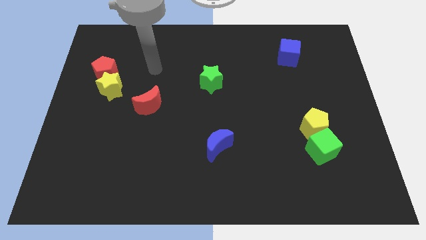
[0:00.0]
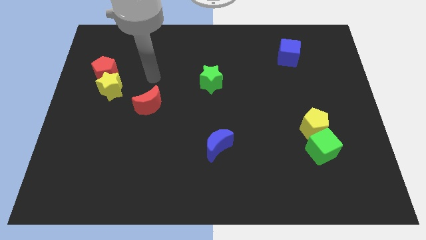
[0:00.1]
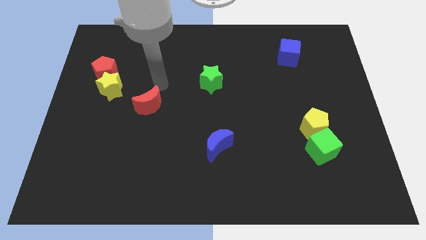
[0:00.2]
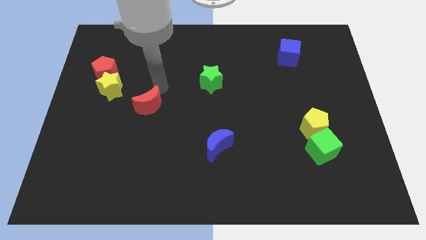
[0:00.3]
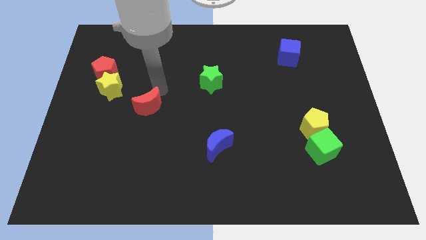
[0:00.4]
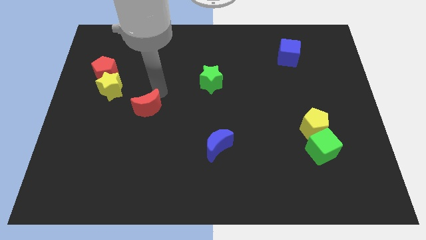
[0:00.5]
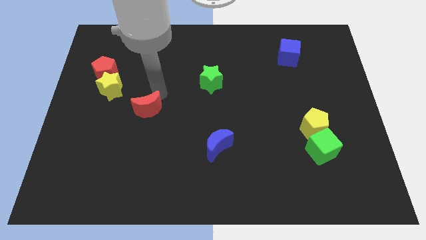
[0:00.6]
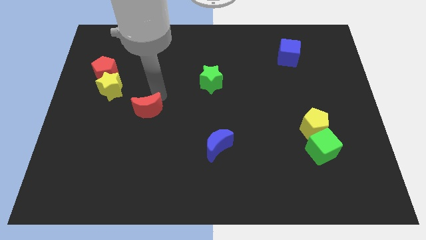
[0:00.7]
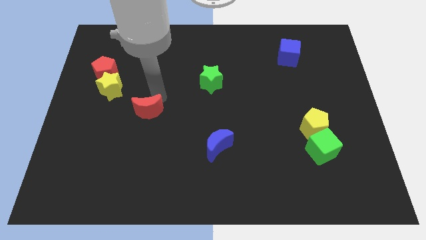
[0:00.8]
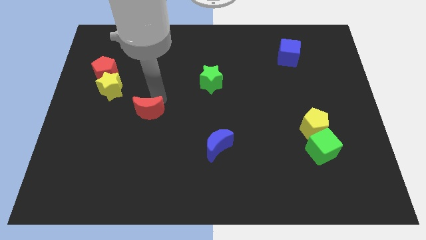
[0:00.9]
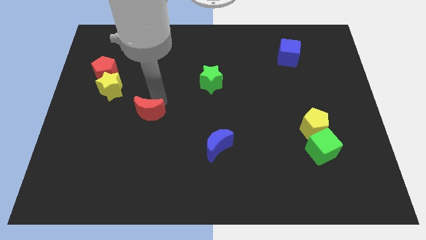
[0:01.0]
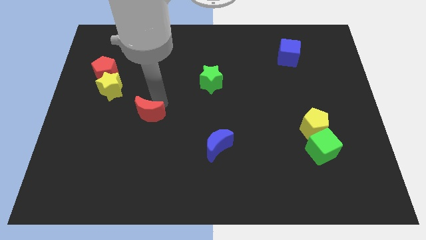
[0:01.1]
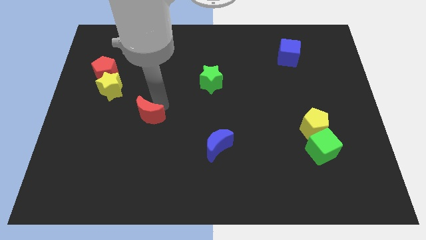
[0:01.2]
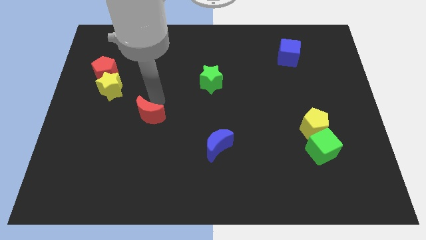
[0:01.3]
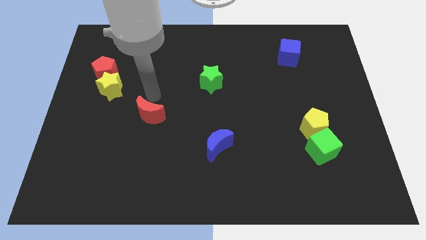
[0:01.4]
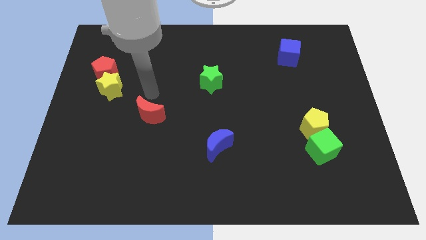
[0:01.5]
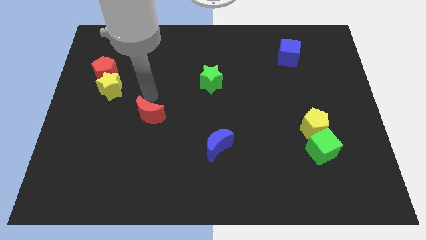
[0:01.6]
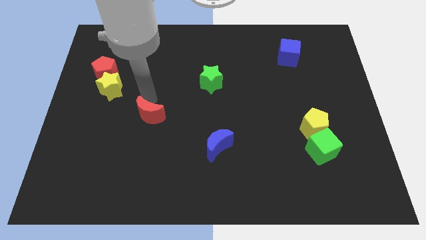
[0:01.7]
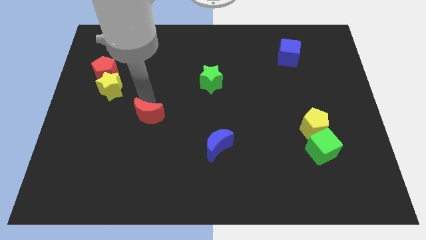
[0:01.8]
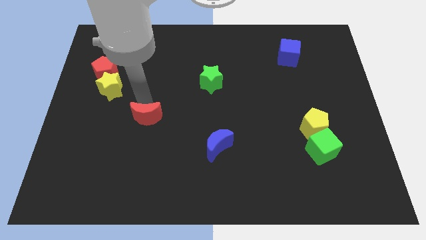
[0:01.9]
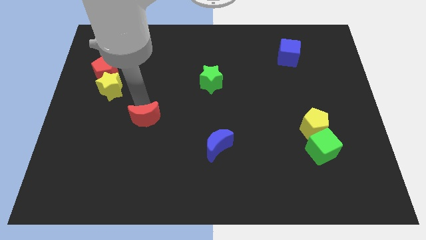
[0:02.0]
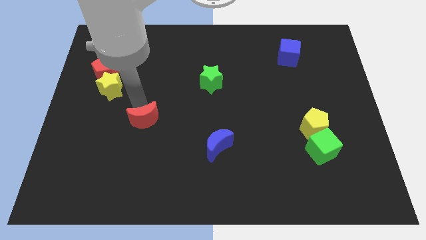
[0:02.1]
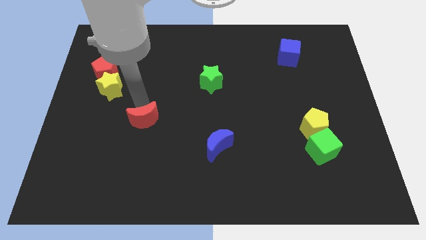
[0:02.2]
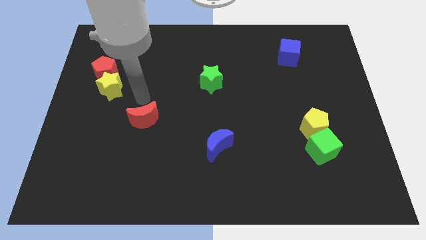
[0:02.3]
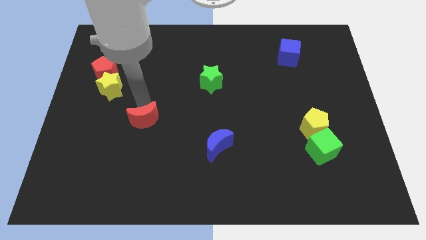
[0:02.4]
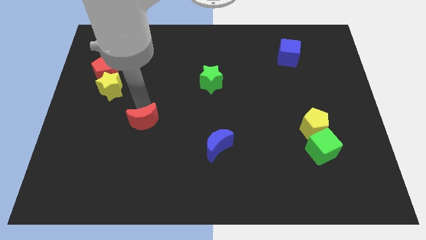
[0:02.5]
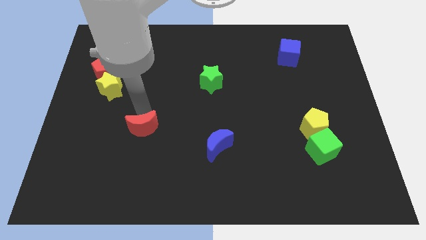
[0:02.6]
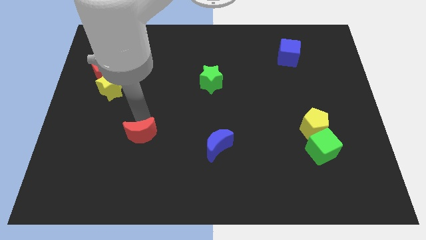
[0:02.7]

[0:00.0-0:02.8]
push the red moon downwards somewhat

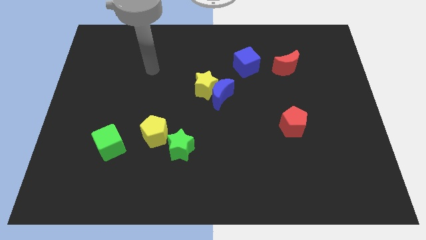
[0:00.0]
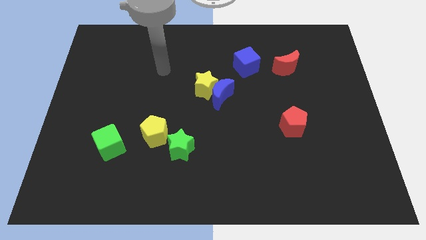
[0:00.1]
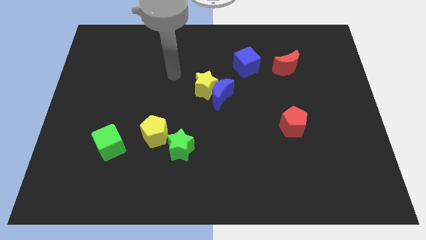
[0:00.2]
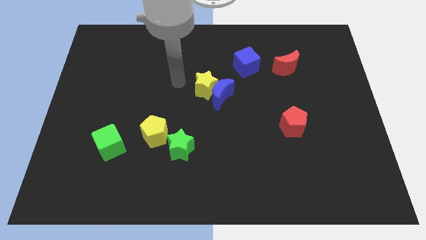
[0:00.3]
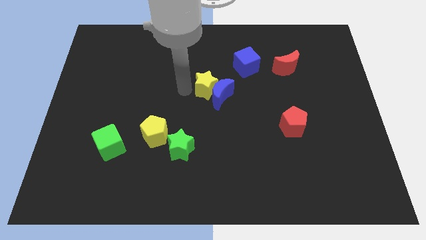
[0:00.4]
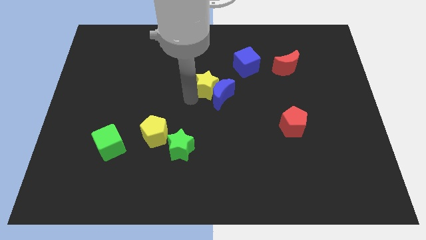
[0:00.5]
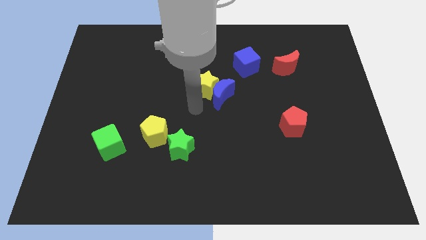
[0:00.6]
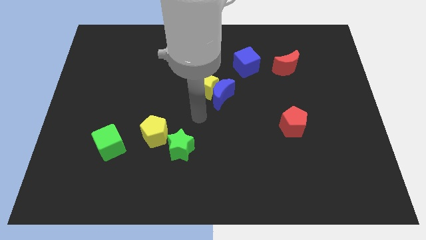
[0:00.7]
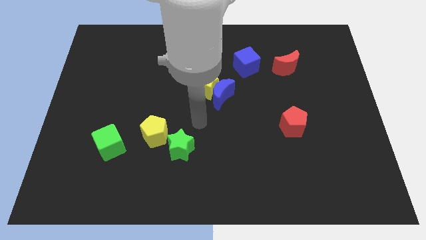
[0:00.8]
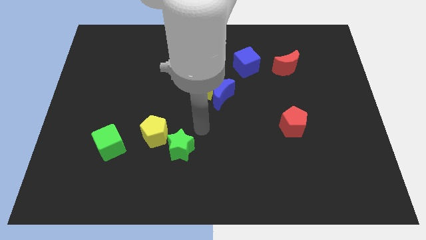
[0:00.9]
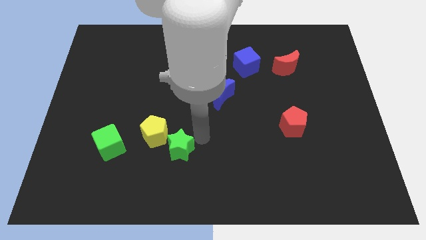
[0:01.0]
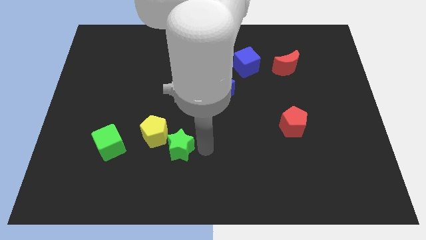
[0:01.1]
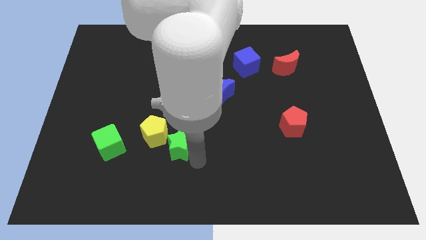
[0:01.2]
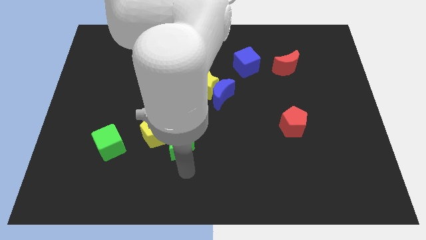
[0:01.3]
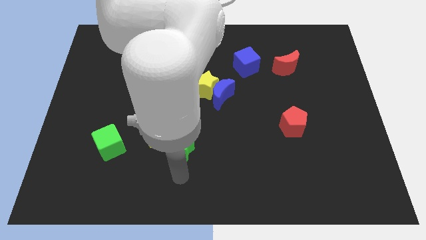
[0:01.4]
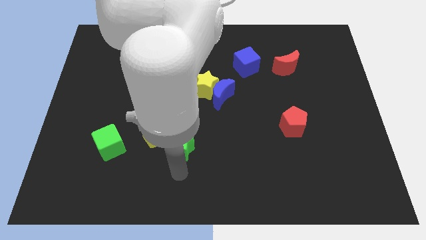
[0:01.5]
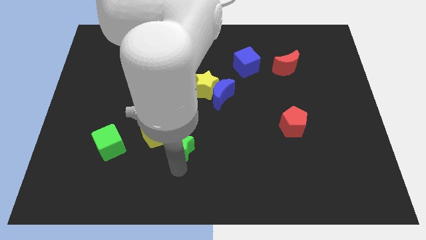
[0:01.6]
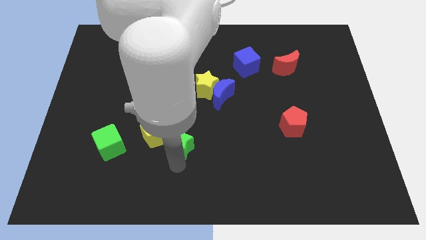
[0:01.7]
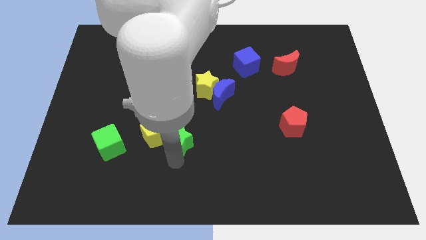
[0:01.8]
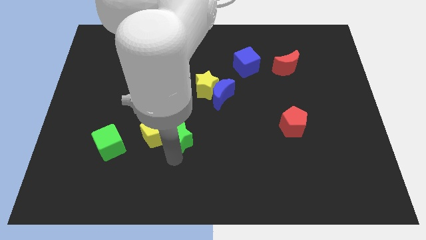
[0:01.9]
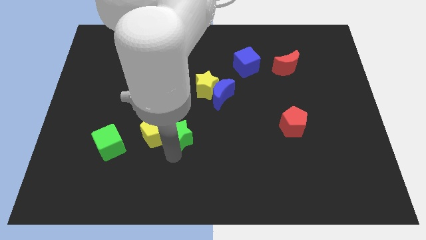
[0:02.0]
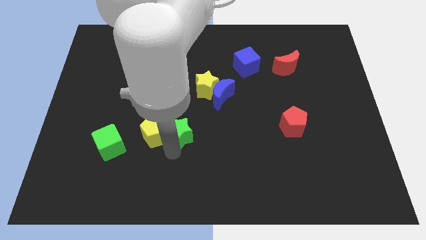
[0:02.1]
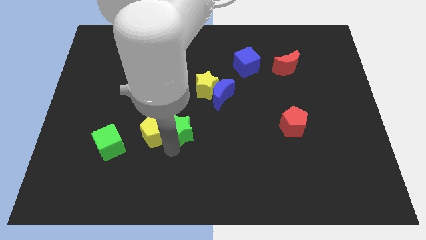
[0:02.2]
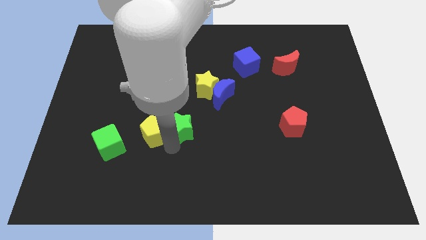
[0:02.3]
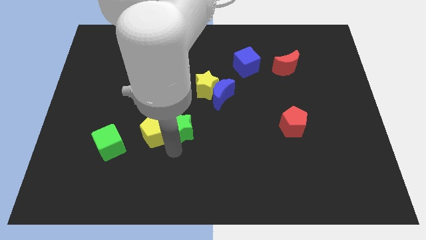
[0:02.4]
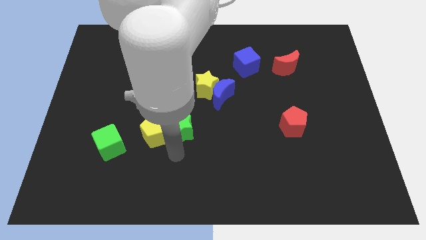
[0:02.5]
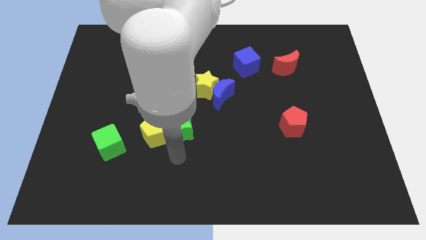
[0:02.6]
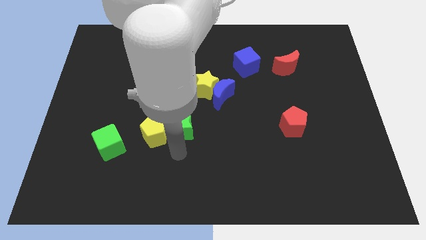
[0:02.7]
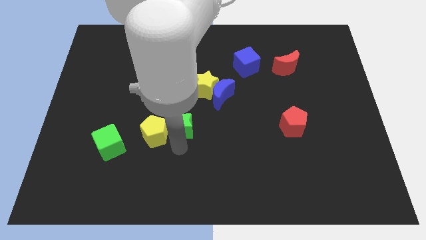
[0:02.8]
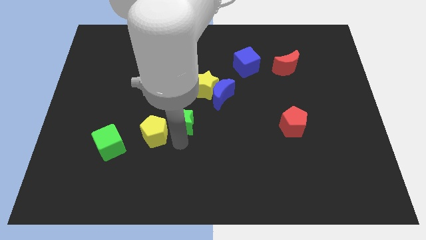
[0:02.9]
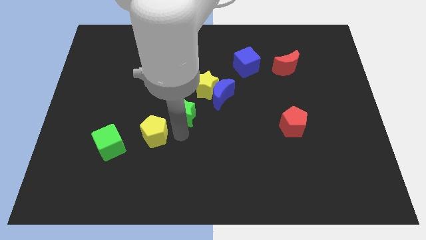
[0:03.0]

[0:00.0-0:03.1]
move the green star somewhat up

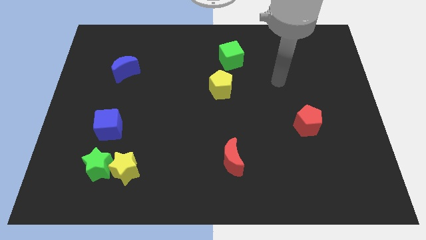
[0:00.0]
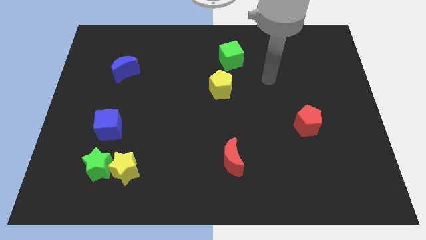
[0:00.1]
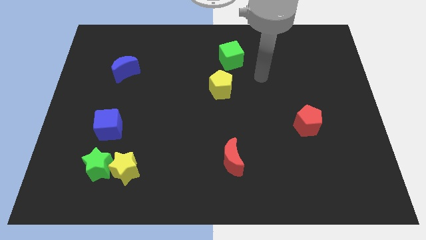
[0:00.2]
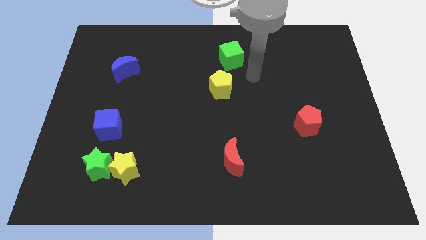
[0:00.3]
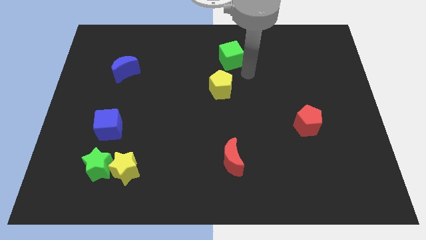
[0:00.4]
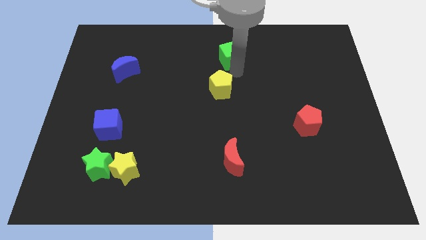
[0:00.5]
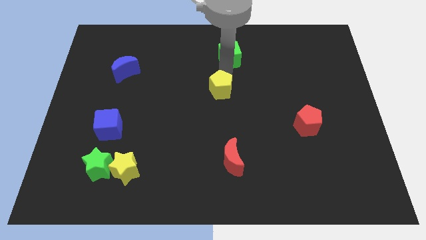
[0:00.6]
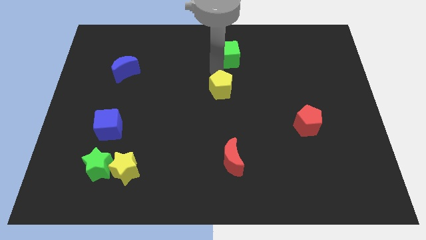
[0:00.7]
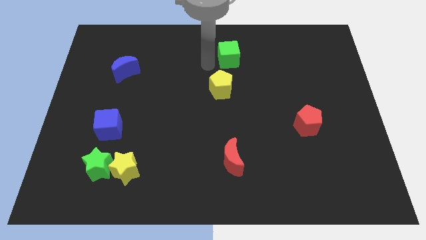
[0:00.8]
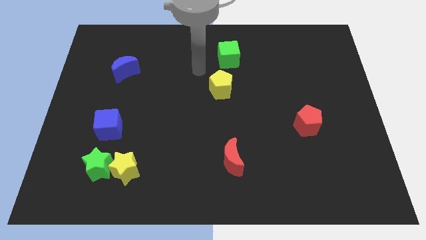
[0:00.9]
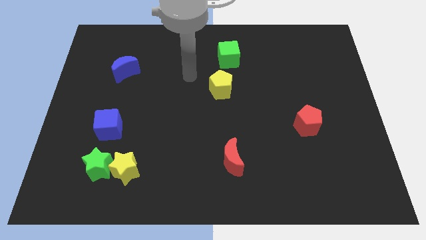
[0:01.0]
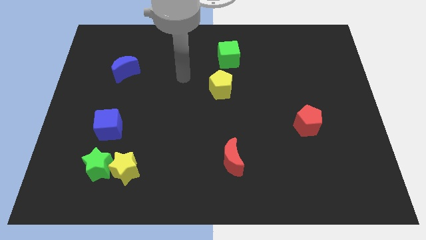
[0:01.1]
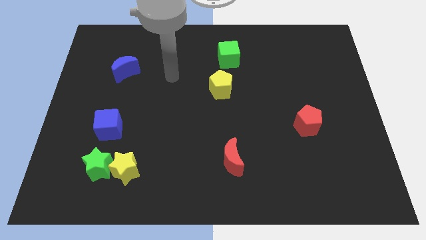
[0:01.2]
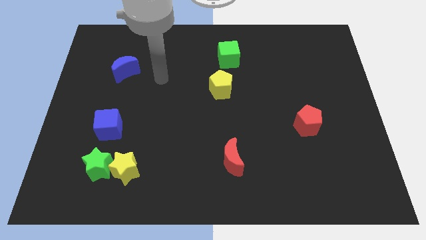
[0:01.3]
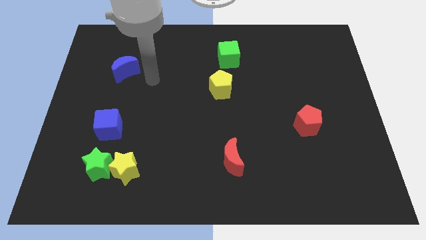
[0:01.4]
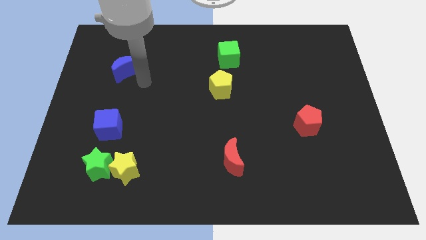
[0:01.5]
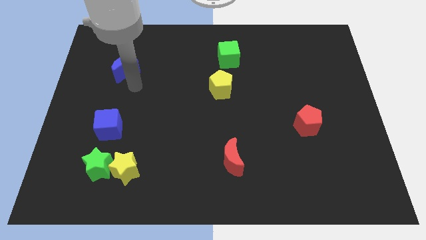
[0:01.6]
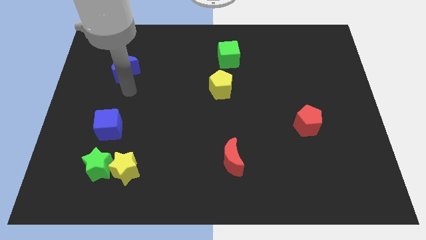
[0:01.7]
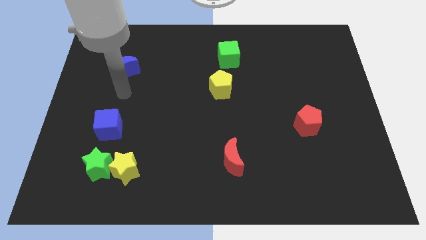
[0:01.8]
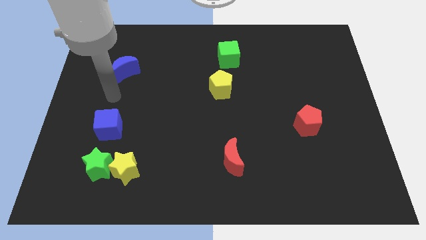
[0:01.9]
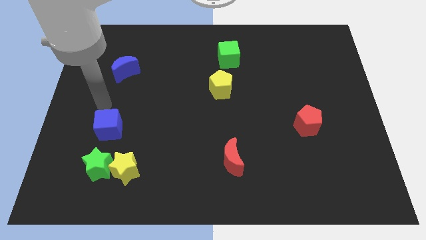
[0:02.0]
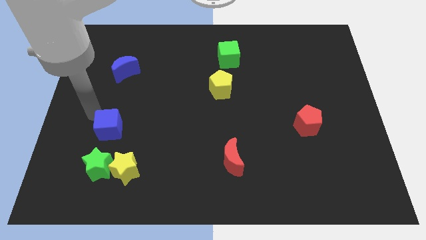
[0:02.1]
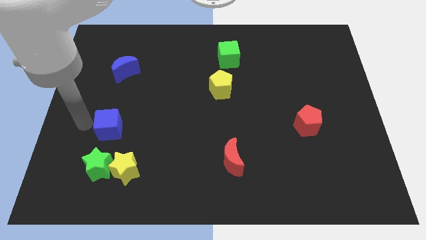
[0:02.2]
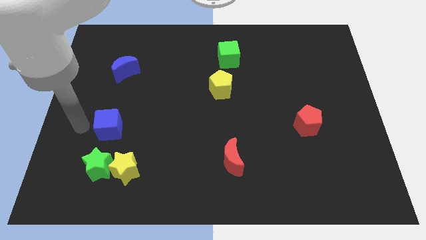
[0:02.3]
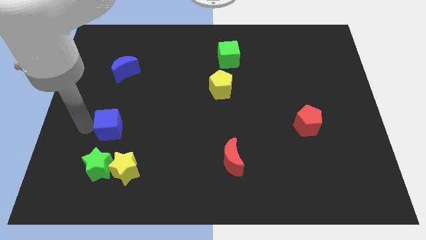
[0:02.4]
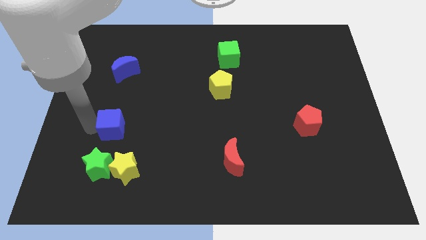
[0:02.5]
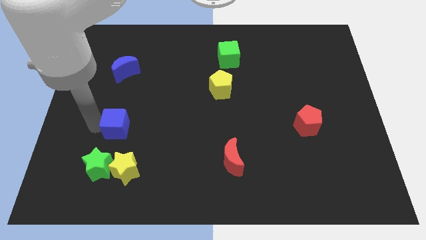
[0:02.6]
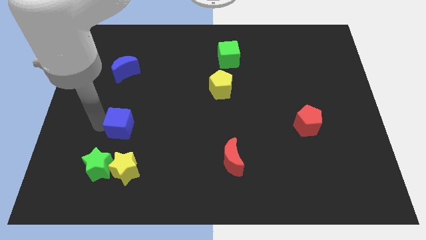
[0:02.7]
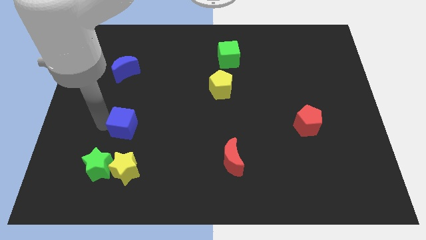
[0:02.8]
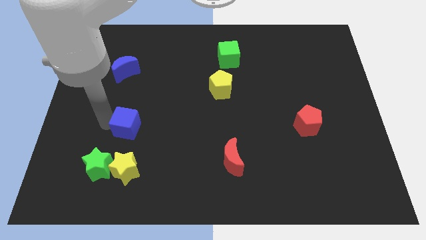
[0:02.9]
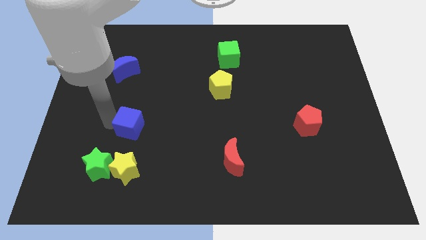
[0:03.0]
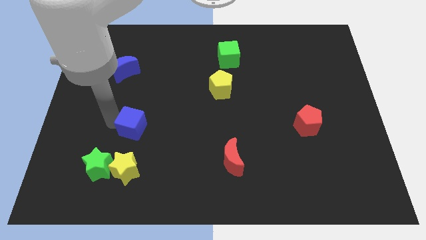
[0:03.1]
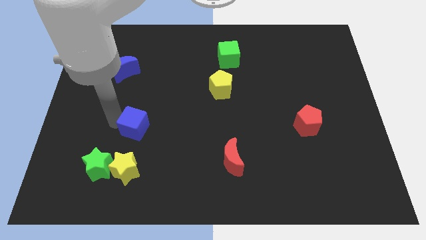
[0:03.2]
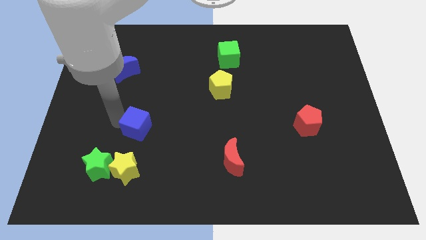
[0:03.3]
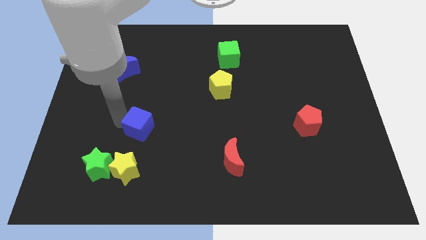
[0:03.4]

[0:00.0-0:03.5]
slide the blue cube to the right a little
